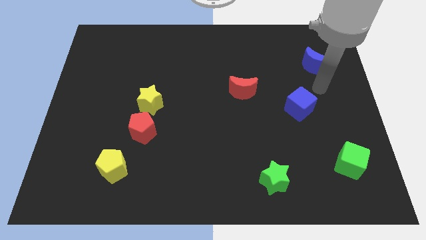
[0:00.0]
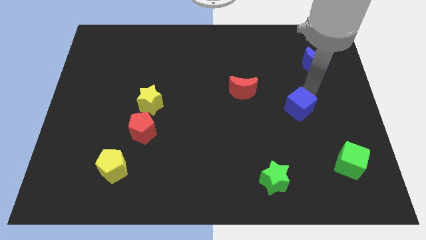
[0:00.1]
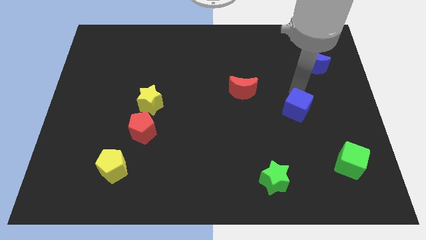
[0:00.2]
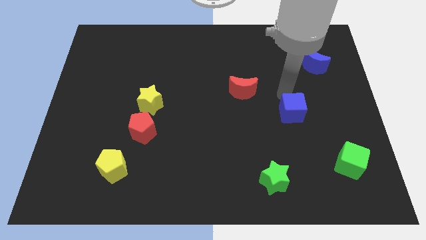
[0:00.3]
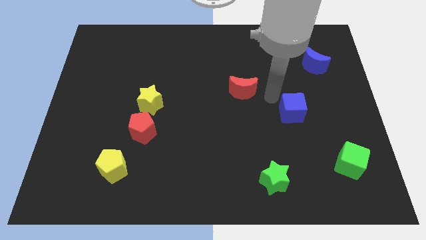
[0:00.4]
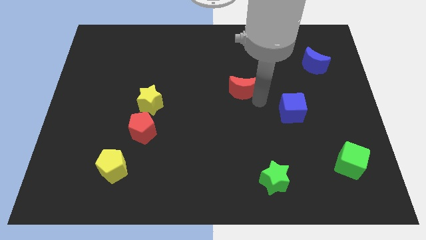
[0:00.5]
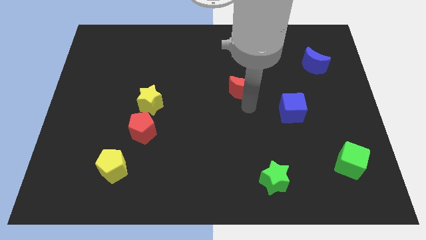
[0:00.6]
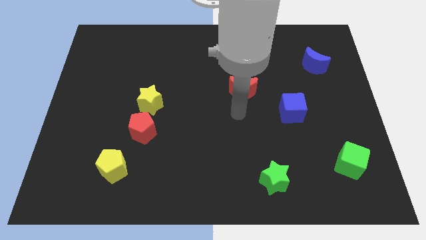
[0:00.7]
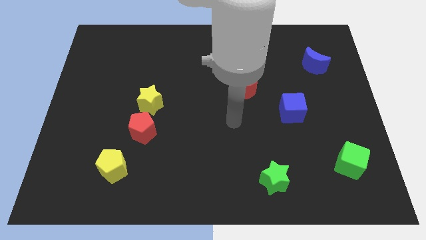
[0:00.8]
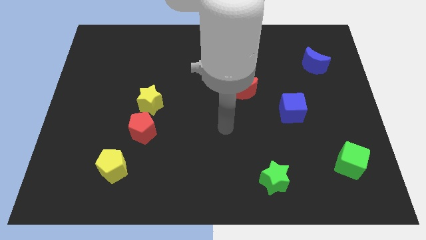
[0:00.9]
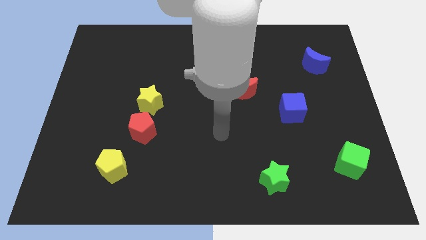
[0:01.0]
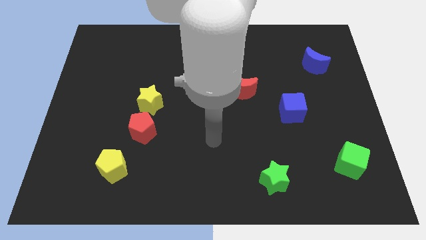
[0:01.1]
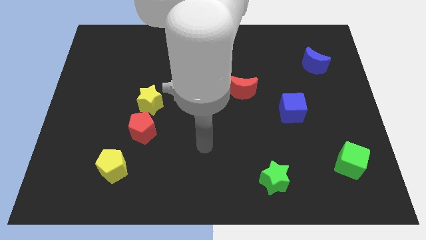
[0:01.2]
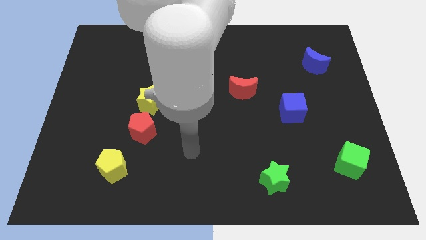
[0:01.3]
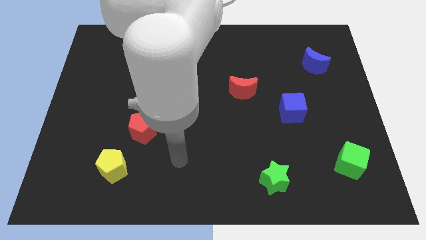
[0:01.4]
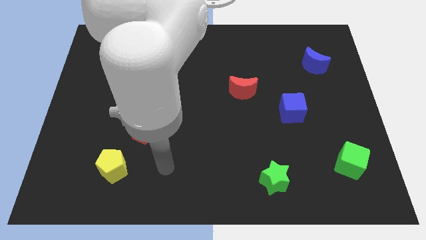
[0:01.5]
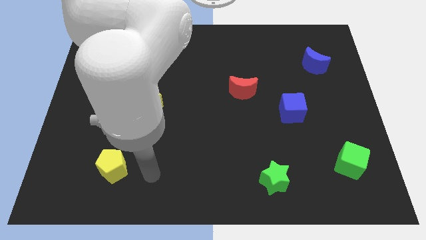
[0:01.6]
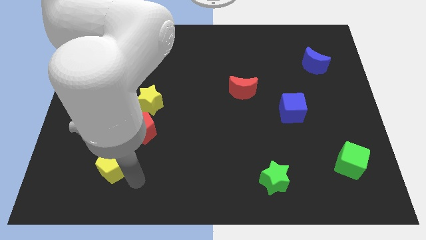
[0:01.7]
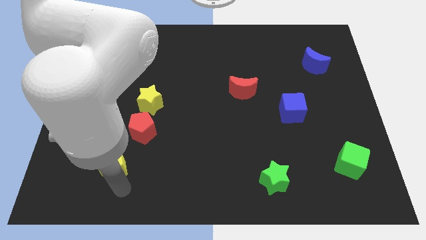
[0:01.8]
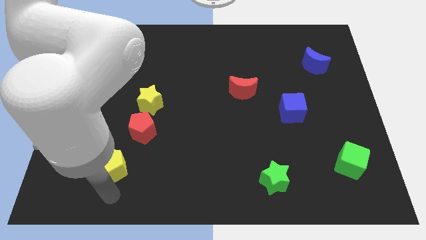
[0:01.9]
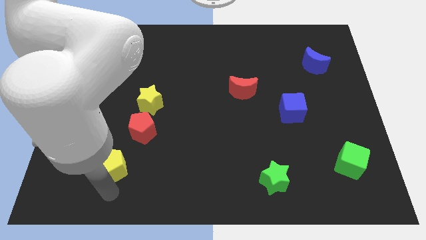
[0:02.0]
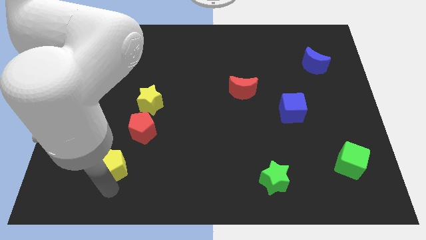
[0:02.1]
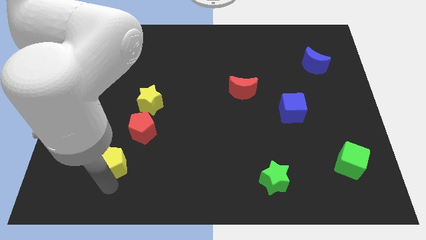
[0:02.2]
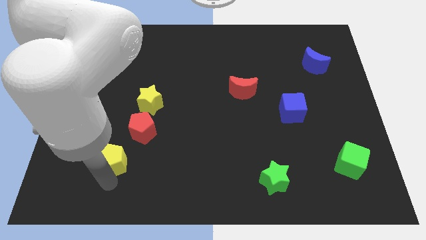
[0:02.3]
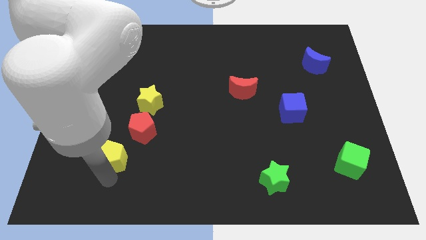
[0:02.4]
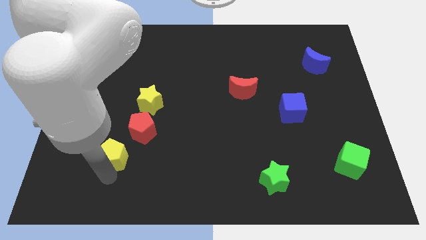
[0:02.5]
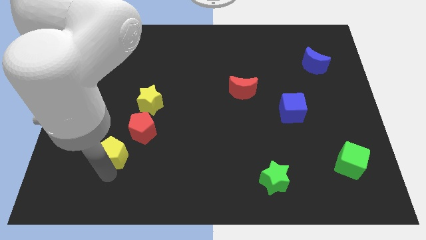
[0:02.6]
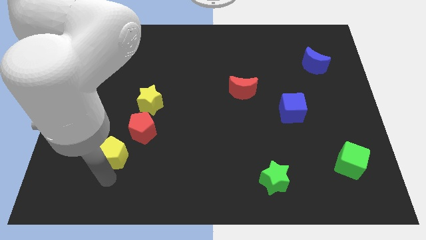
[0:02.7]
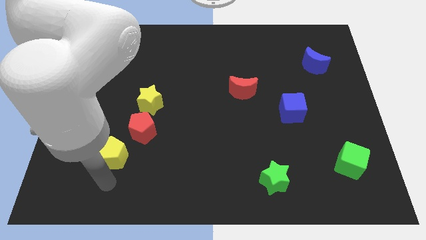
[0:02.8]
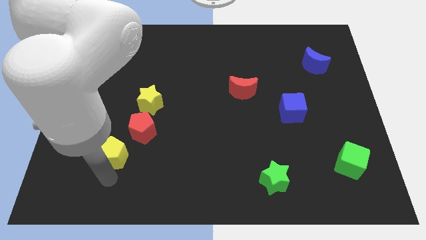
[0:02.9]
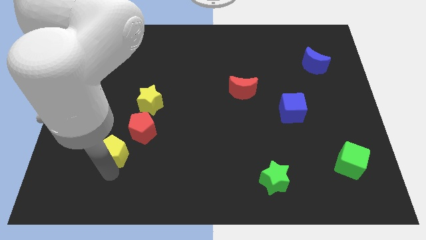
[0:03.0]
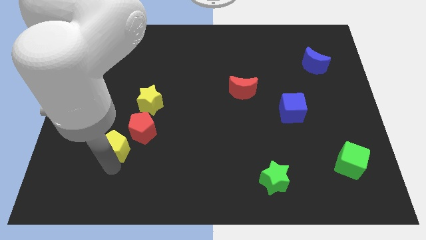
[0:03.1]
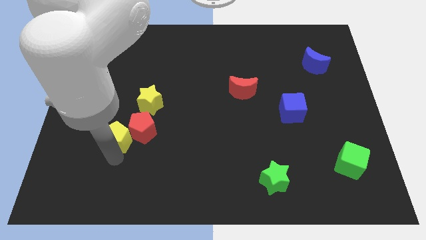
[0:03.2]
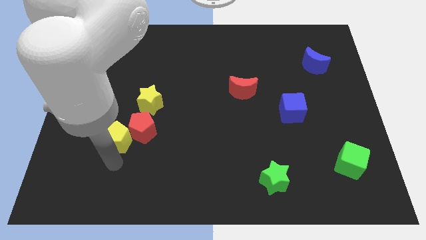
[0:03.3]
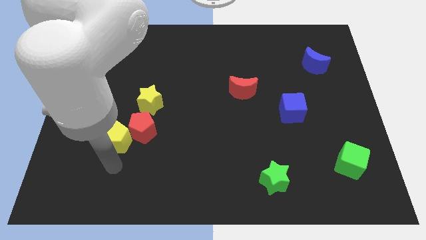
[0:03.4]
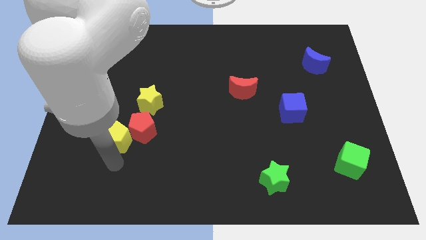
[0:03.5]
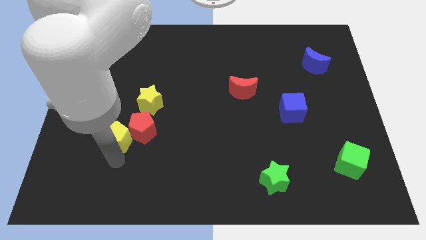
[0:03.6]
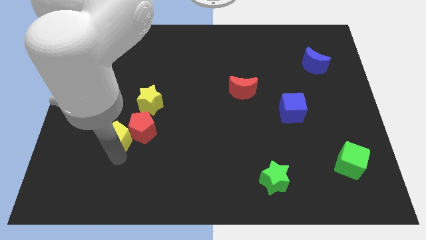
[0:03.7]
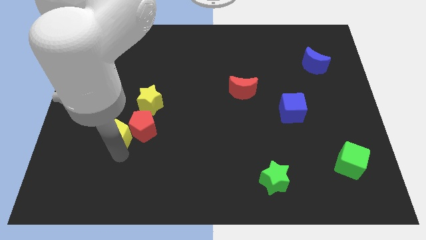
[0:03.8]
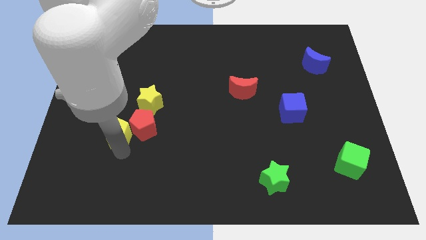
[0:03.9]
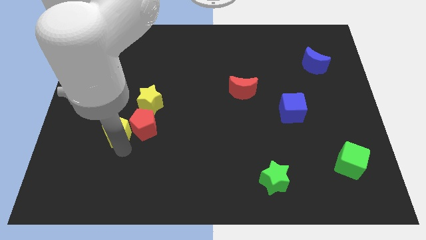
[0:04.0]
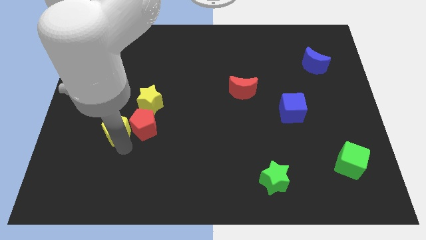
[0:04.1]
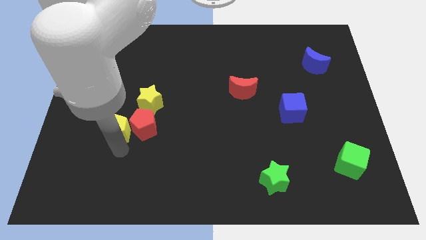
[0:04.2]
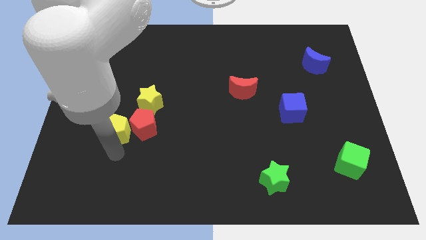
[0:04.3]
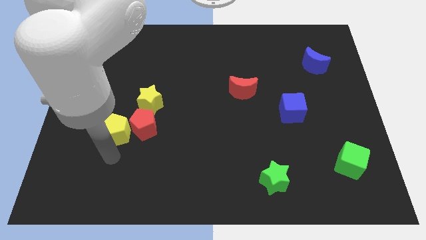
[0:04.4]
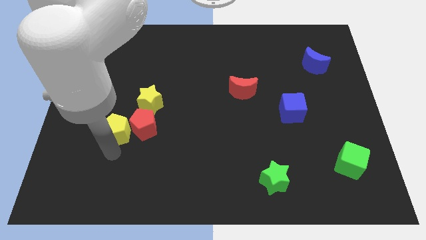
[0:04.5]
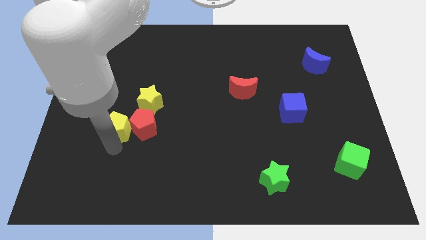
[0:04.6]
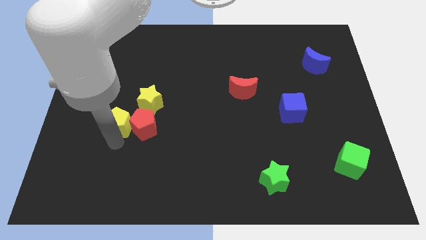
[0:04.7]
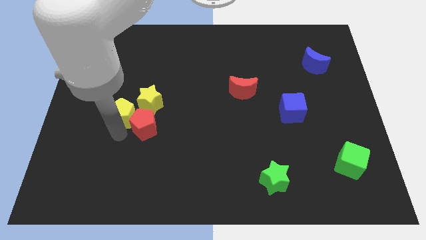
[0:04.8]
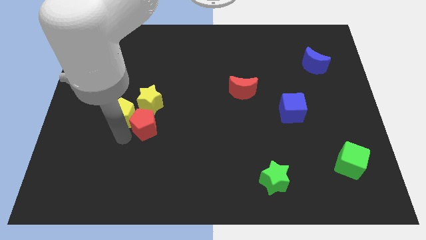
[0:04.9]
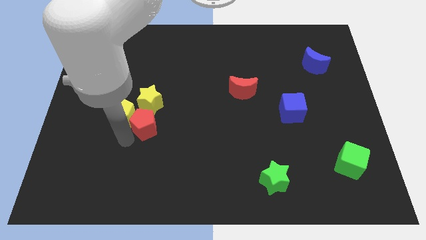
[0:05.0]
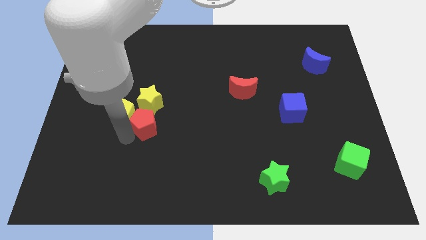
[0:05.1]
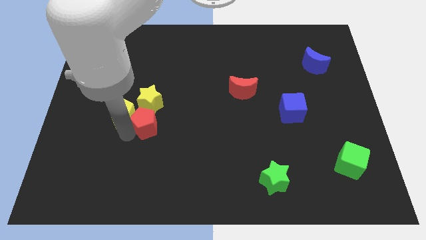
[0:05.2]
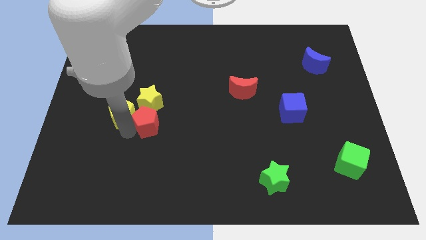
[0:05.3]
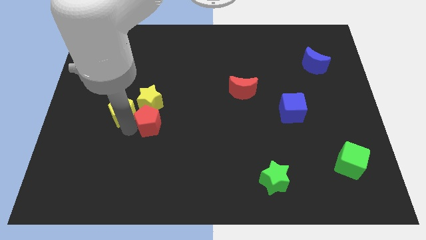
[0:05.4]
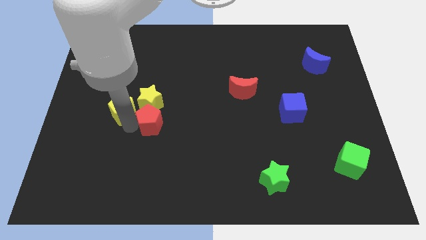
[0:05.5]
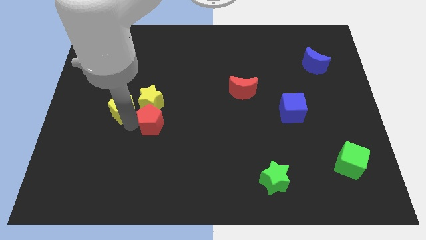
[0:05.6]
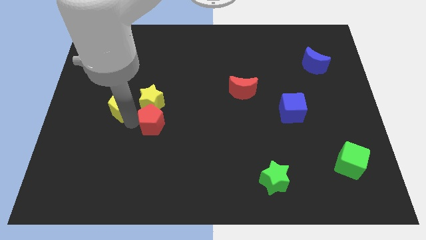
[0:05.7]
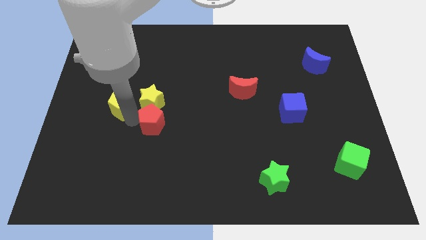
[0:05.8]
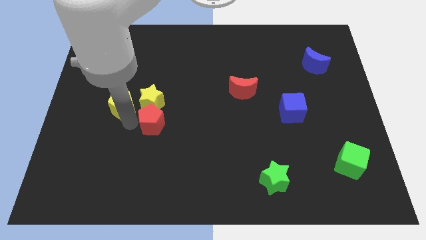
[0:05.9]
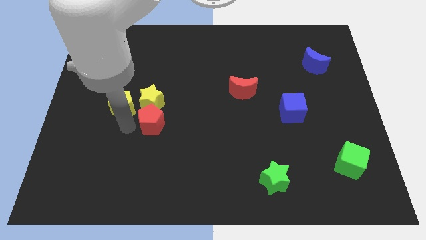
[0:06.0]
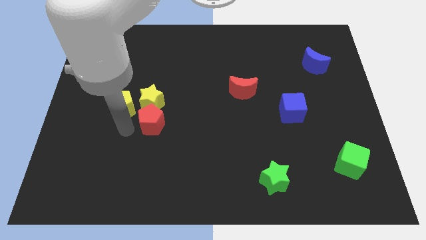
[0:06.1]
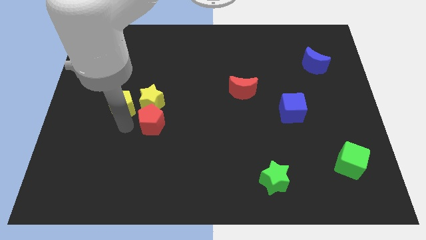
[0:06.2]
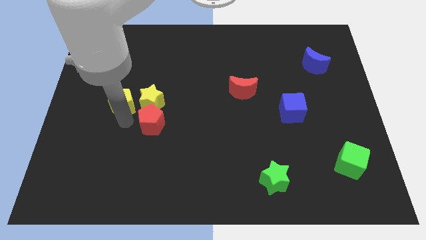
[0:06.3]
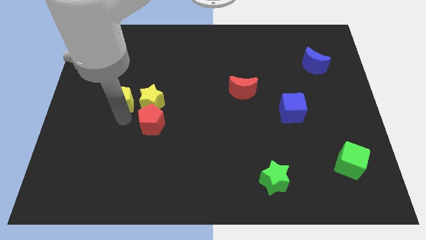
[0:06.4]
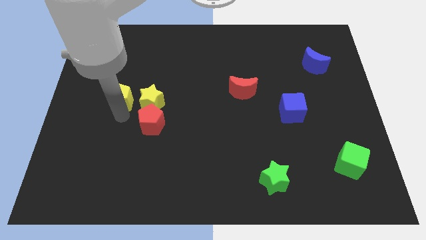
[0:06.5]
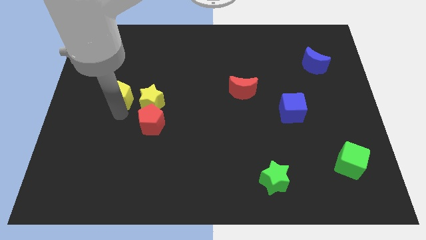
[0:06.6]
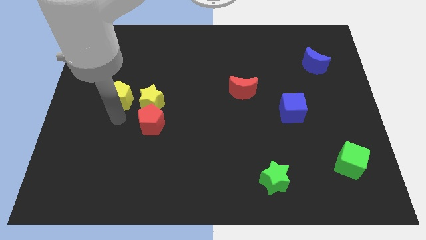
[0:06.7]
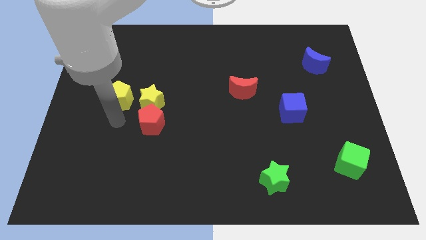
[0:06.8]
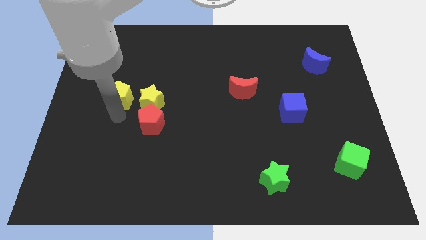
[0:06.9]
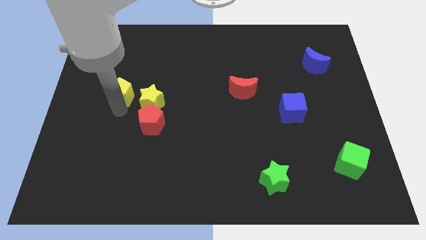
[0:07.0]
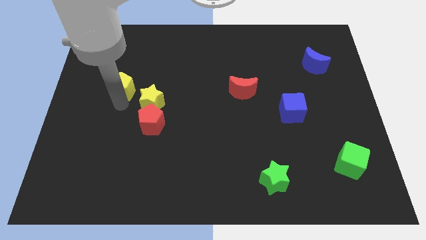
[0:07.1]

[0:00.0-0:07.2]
move the yellow pentagon up

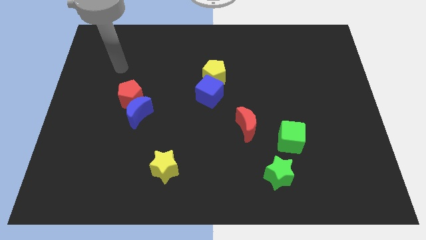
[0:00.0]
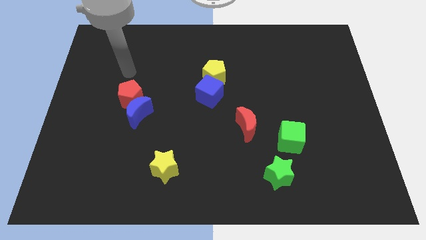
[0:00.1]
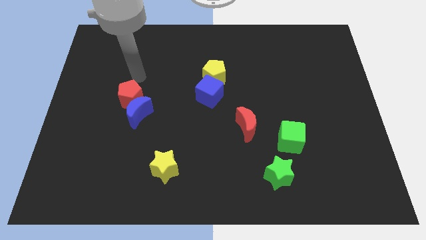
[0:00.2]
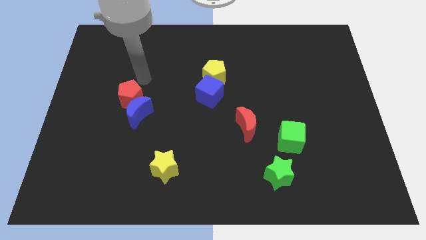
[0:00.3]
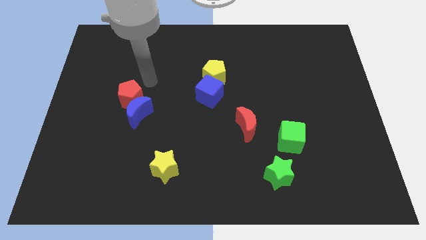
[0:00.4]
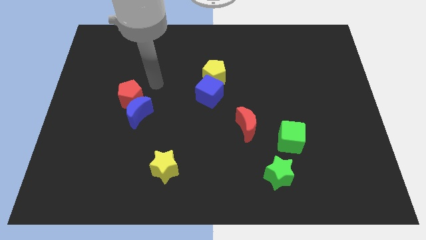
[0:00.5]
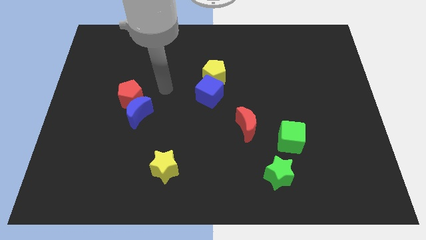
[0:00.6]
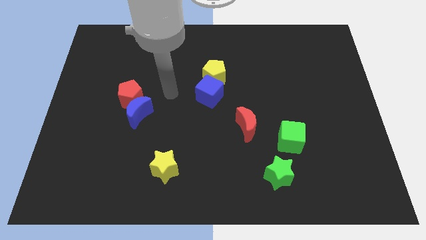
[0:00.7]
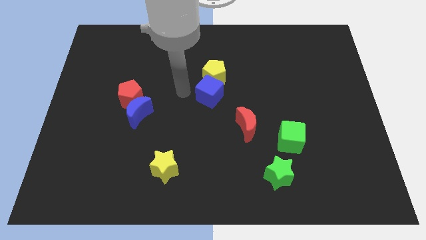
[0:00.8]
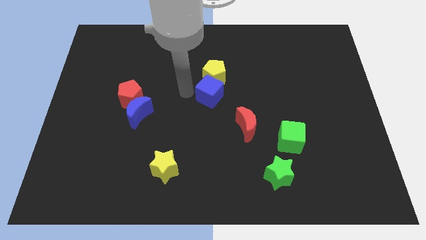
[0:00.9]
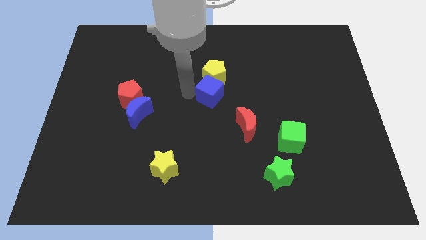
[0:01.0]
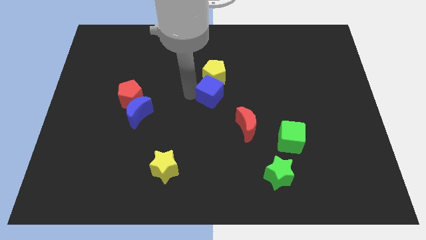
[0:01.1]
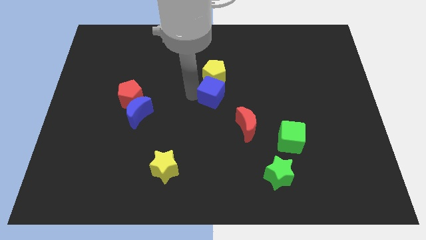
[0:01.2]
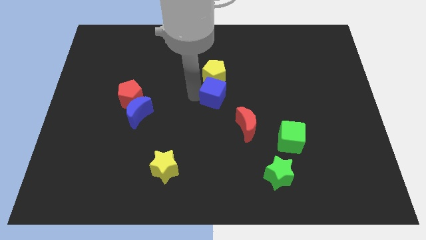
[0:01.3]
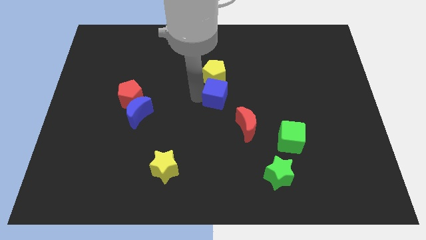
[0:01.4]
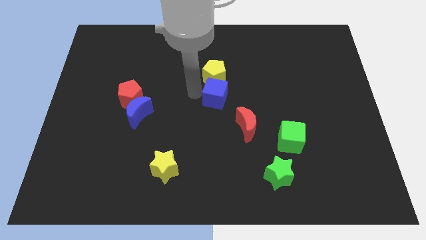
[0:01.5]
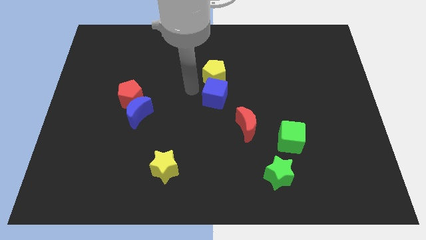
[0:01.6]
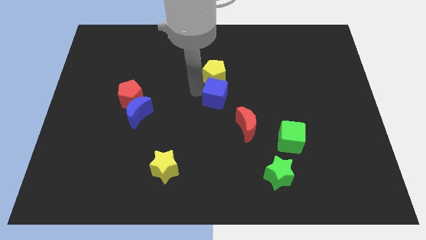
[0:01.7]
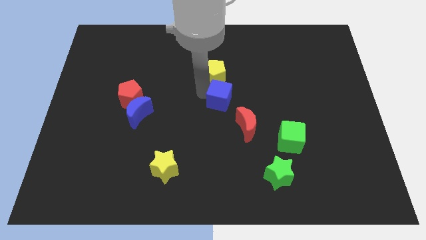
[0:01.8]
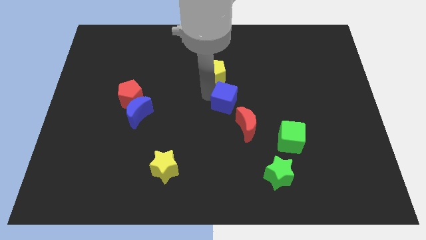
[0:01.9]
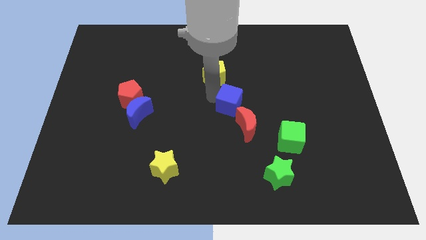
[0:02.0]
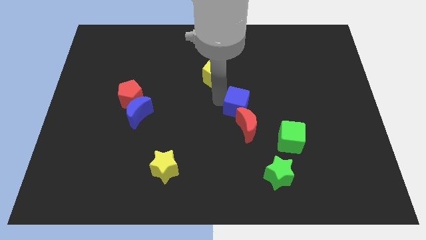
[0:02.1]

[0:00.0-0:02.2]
slide the blue cube downwards and to the right diagonally a little bit
